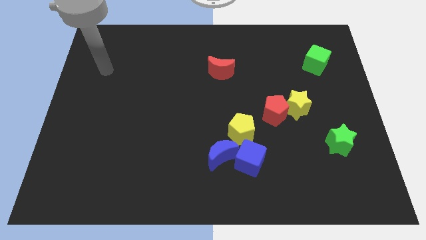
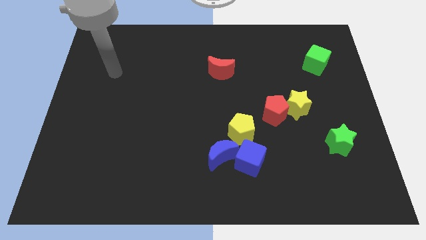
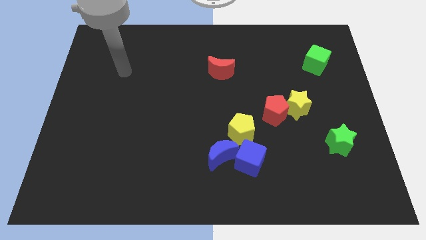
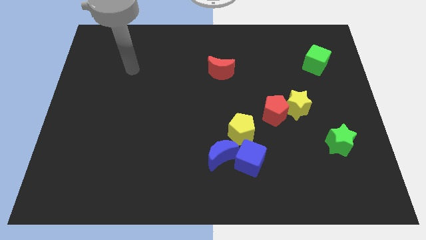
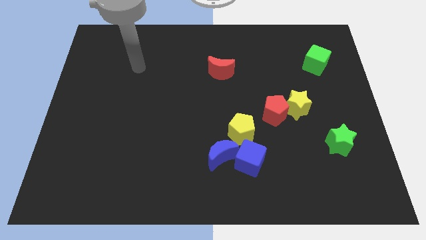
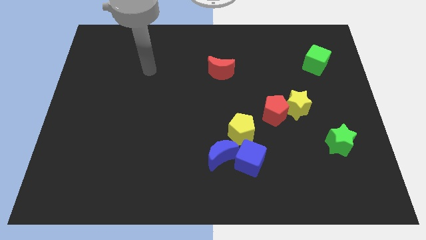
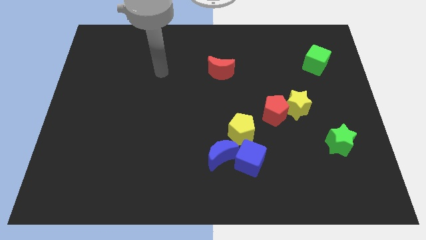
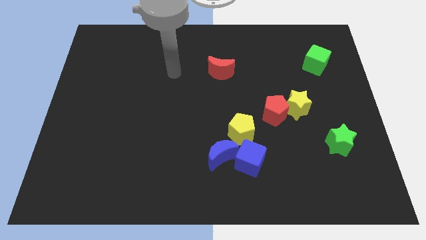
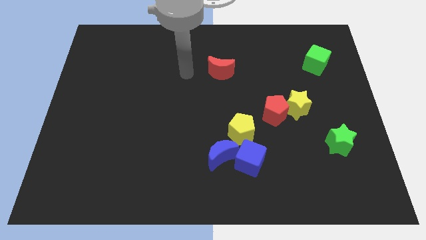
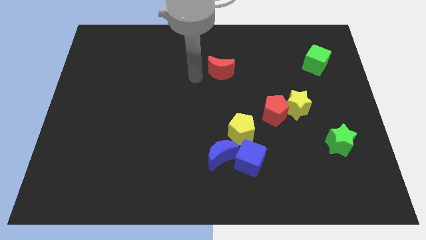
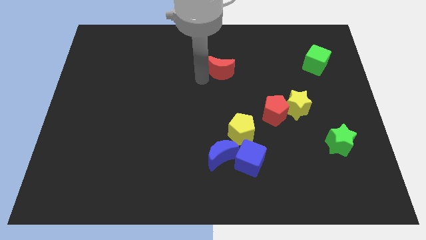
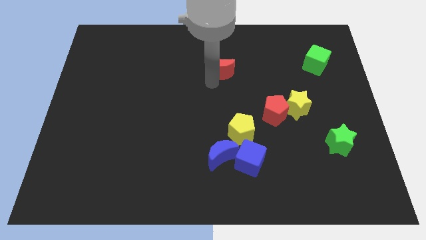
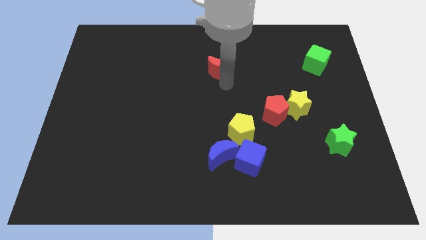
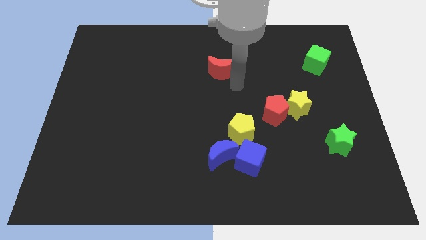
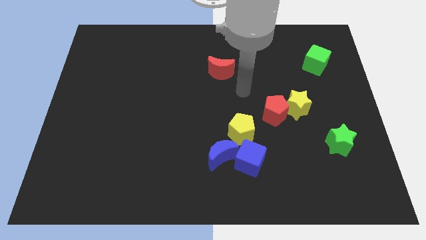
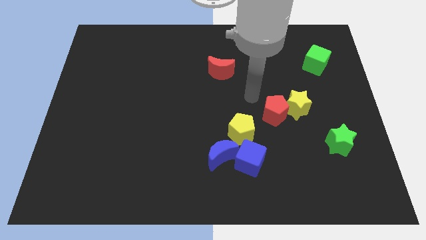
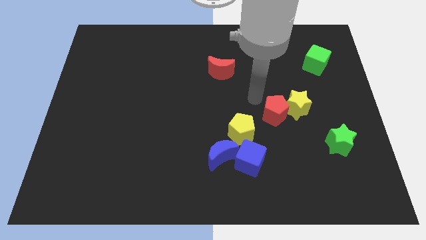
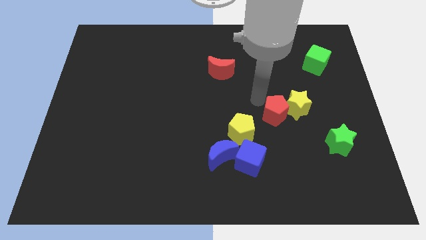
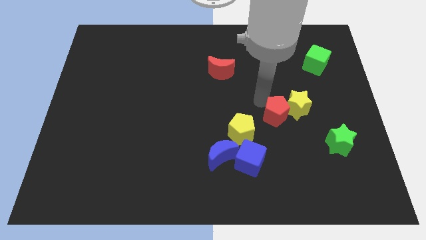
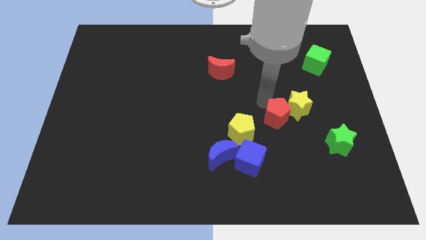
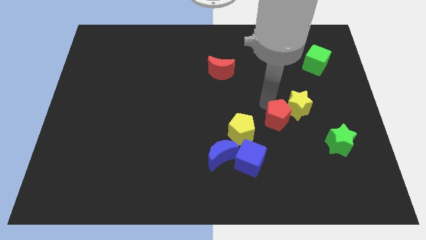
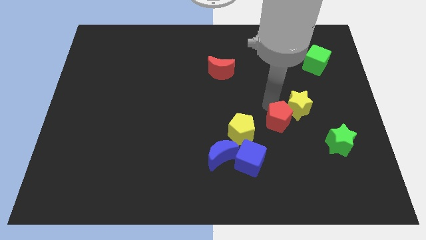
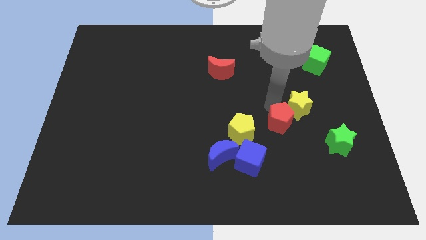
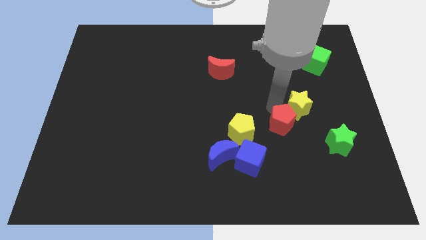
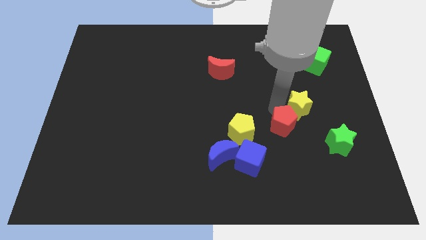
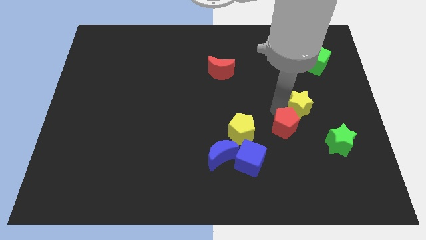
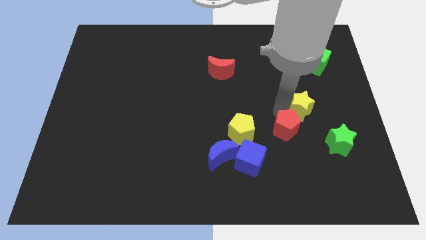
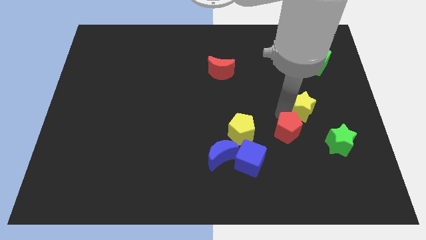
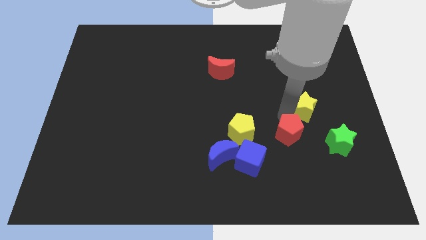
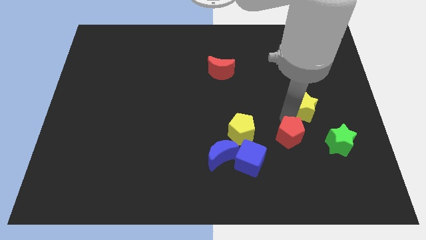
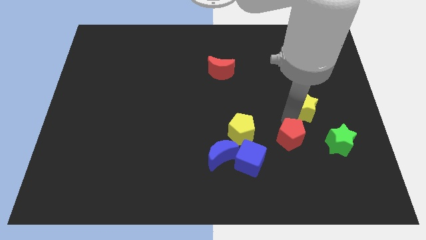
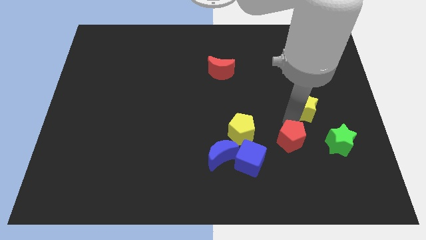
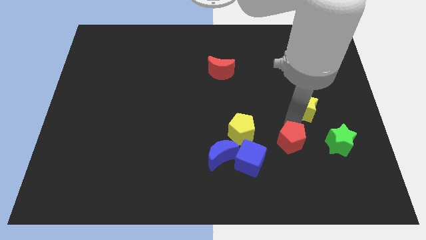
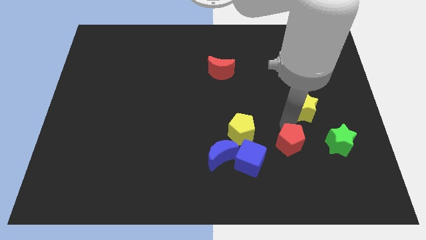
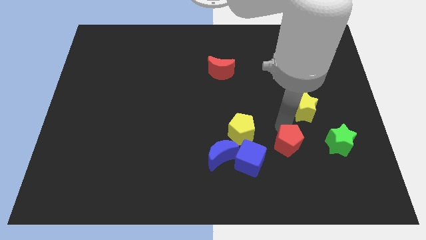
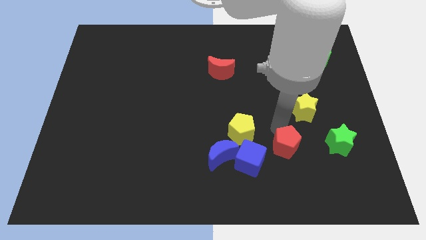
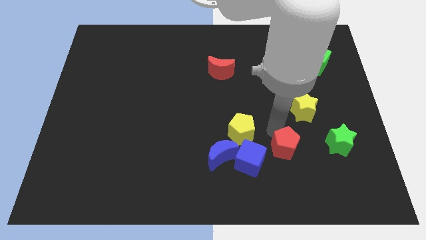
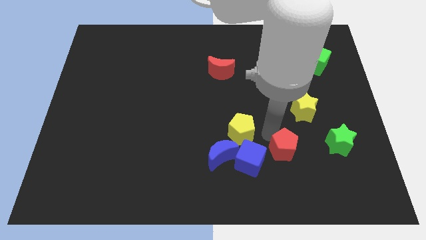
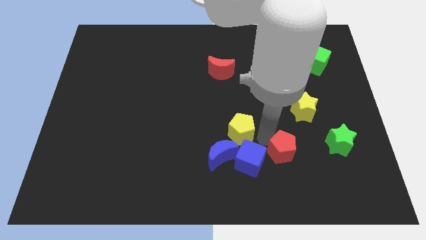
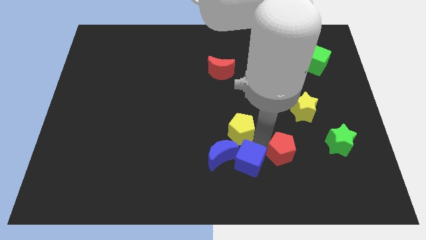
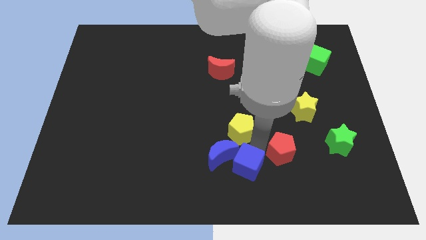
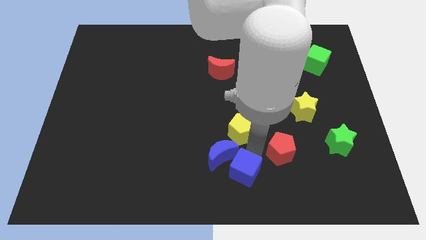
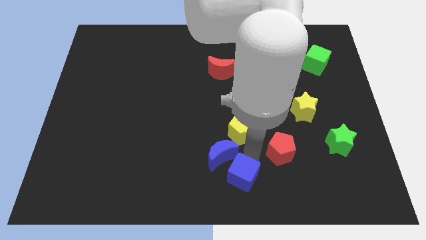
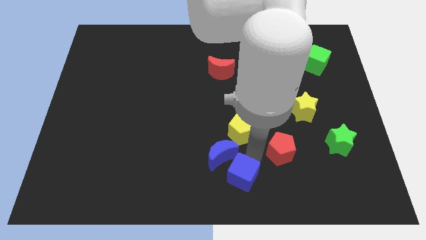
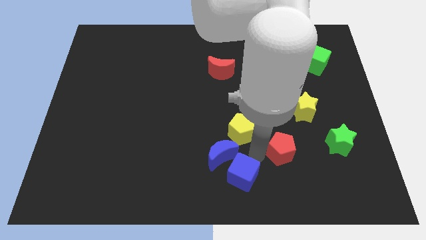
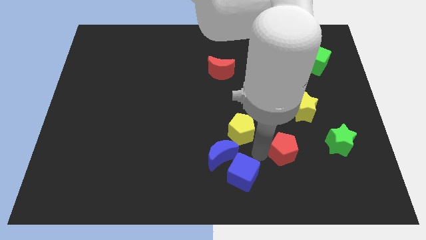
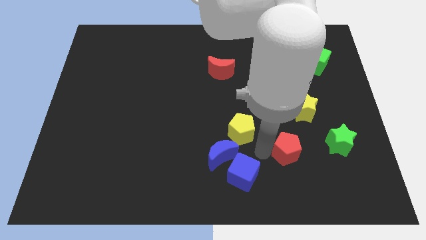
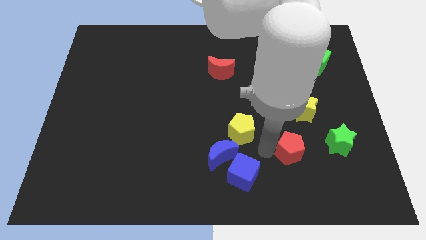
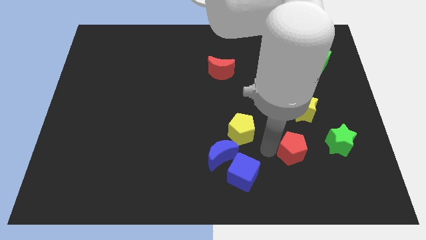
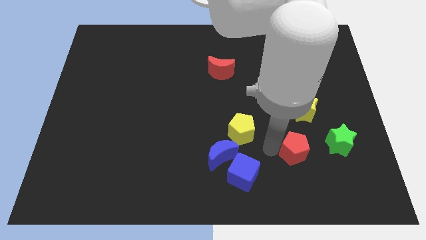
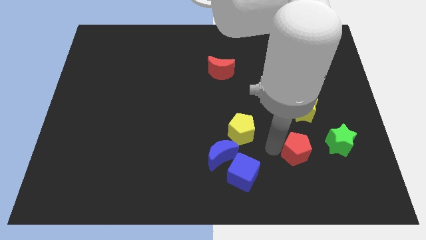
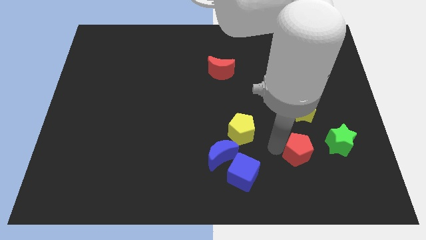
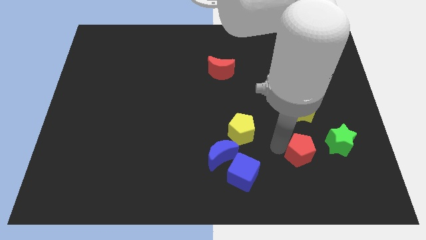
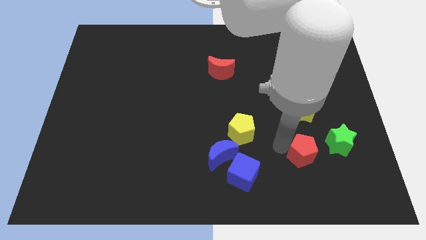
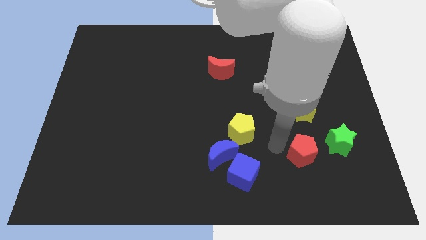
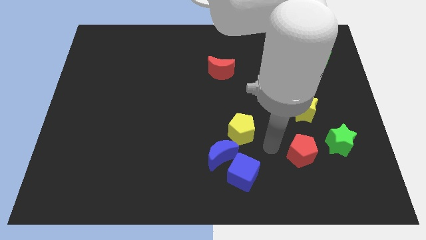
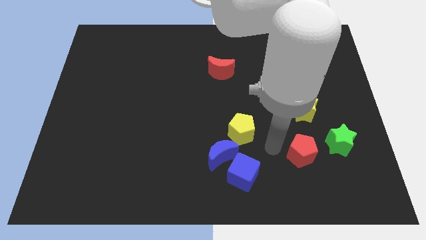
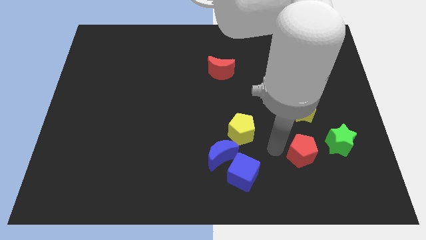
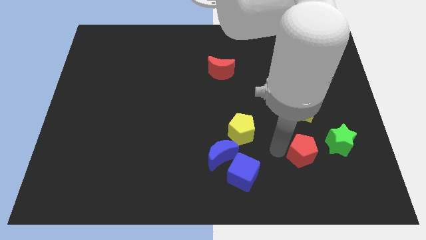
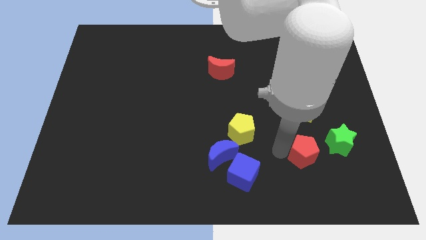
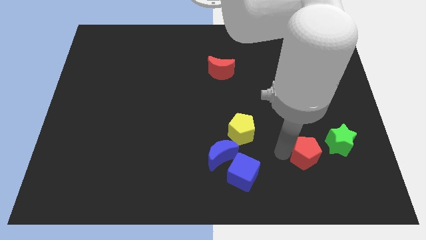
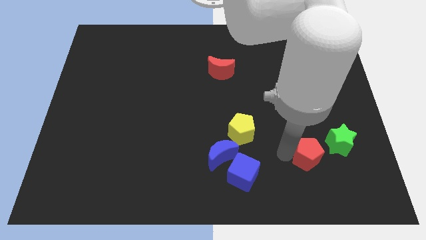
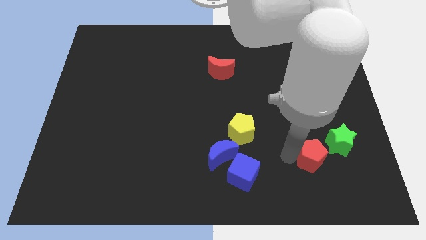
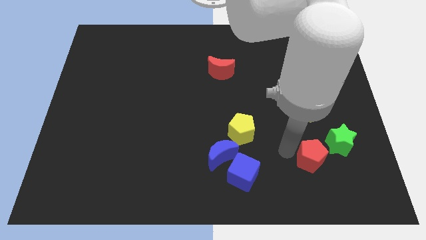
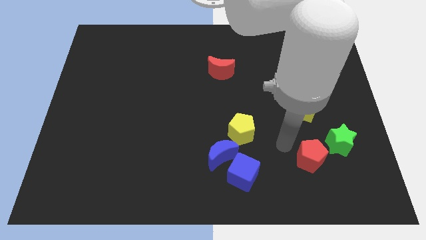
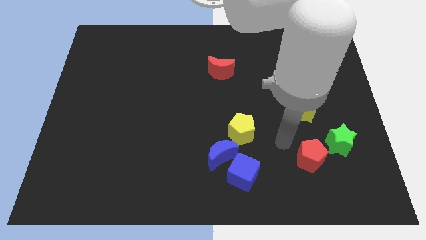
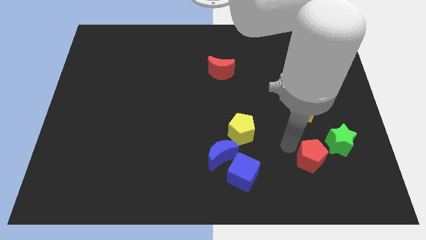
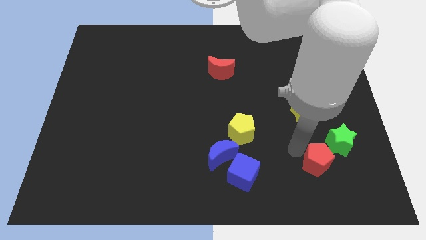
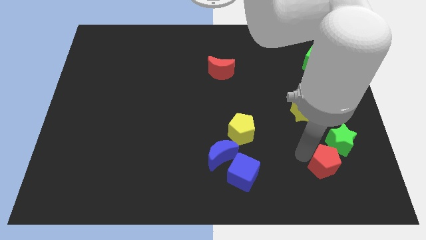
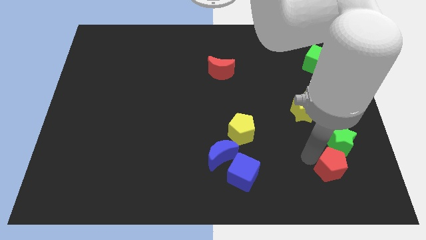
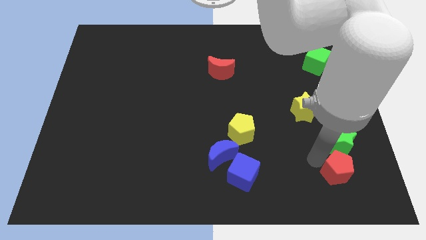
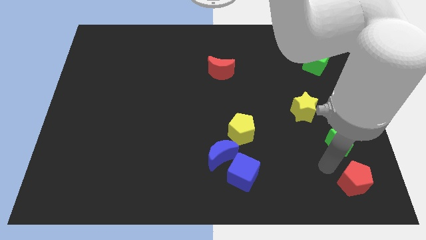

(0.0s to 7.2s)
put the red pentagon to the lower right corner
